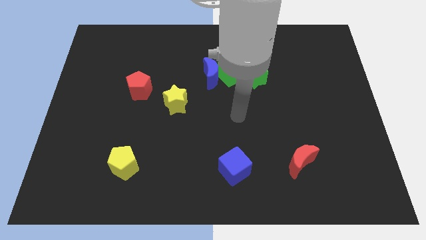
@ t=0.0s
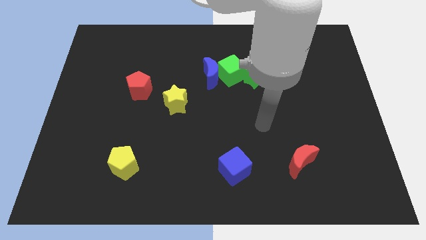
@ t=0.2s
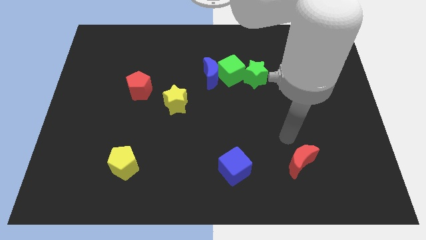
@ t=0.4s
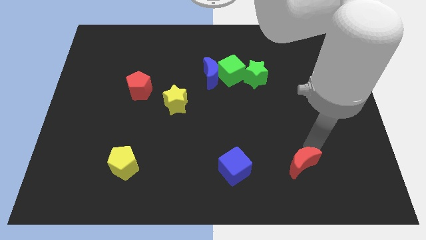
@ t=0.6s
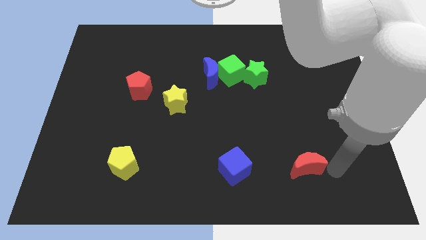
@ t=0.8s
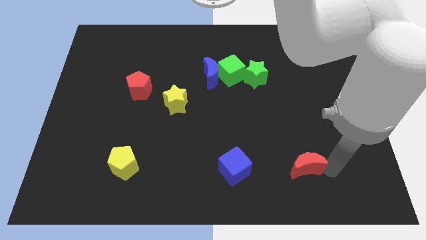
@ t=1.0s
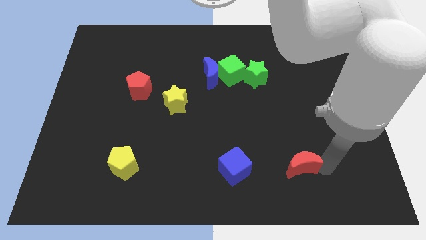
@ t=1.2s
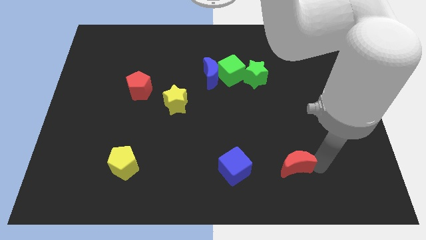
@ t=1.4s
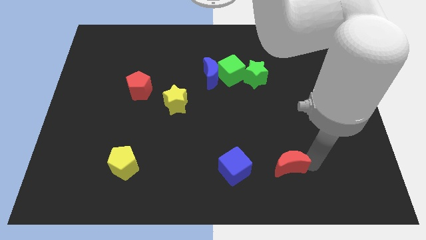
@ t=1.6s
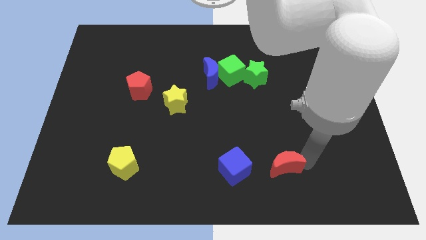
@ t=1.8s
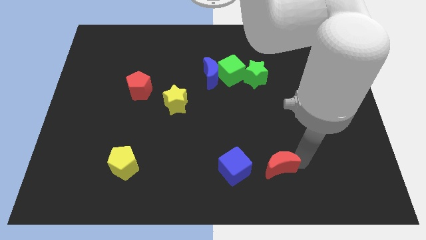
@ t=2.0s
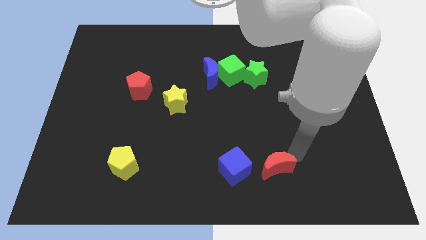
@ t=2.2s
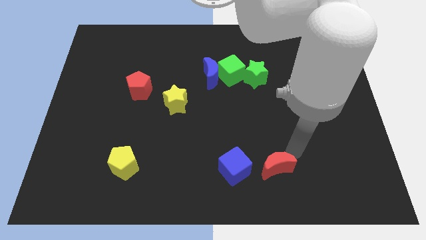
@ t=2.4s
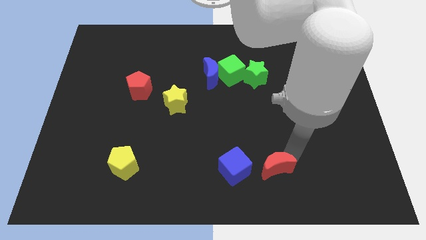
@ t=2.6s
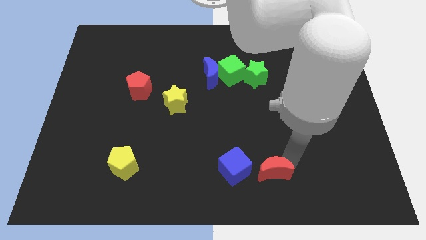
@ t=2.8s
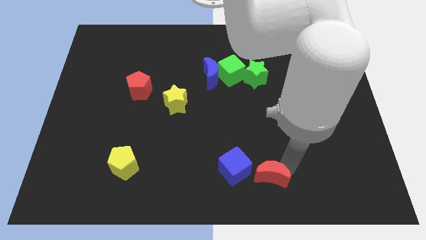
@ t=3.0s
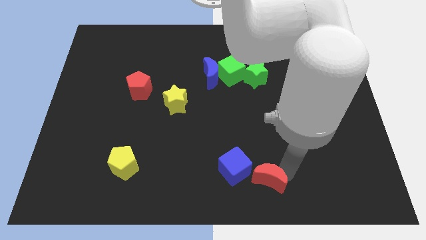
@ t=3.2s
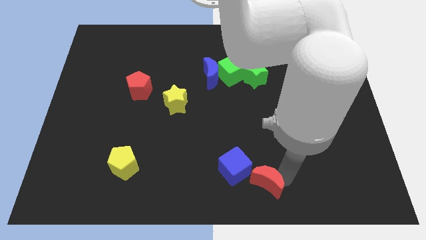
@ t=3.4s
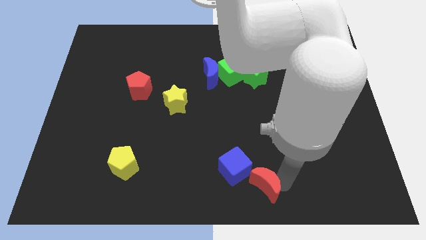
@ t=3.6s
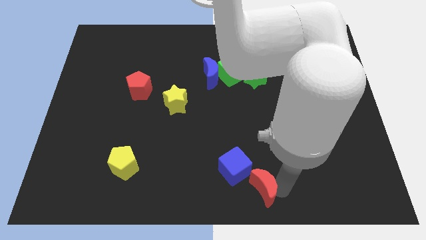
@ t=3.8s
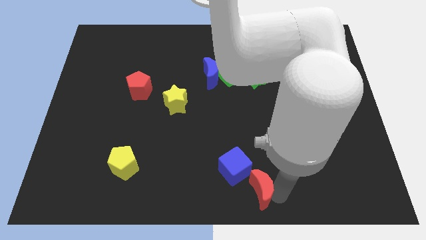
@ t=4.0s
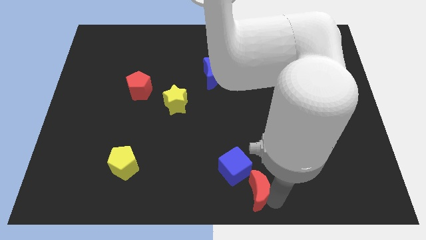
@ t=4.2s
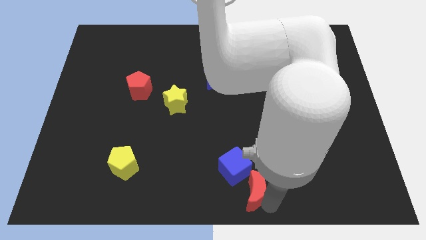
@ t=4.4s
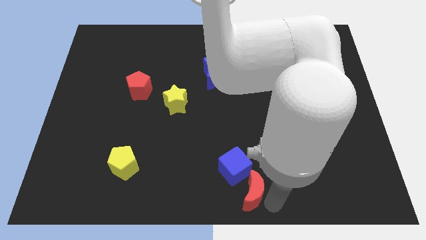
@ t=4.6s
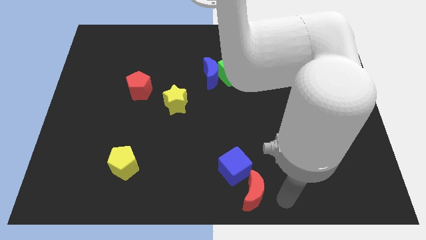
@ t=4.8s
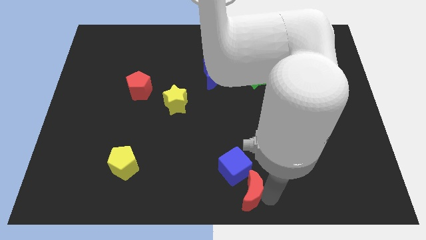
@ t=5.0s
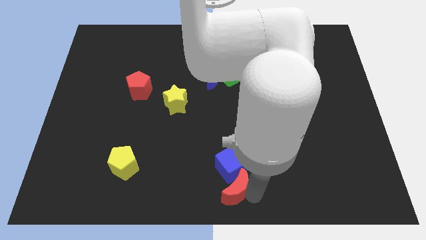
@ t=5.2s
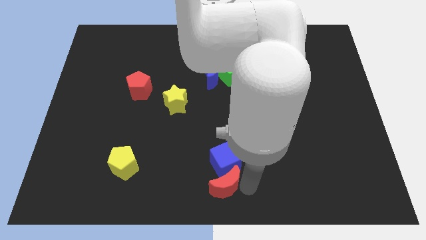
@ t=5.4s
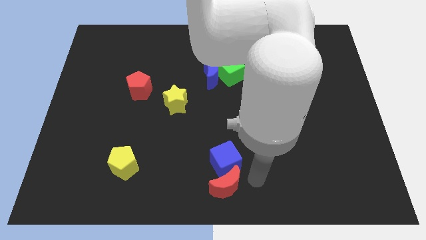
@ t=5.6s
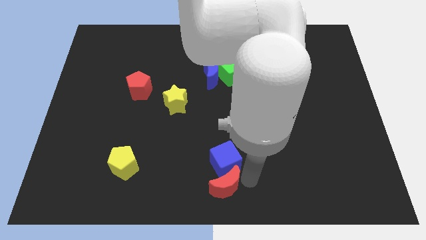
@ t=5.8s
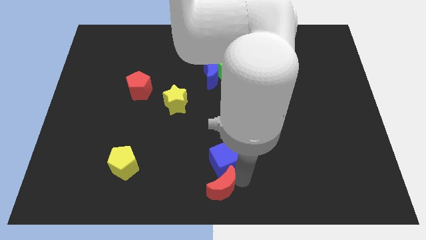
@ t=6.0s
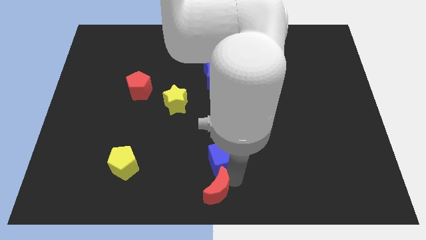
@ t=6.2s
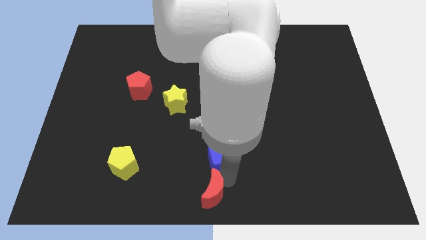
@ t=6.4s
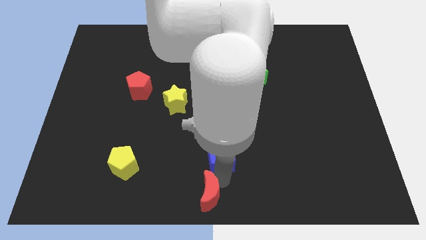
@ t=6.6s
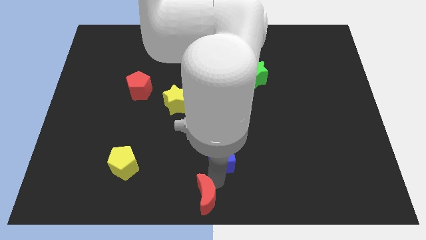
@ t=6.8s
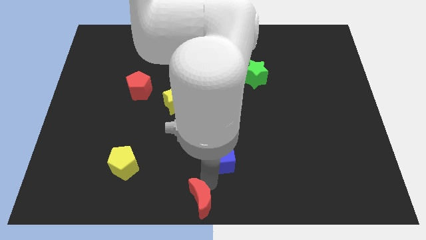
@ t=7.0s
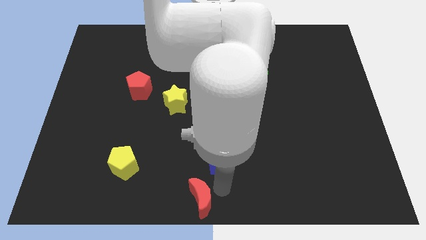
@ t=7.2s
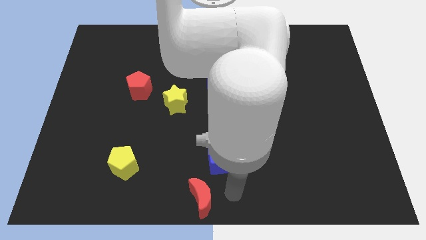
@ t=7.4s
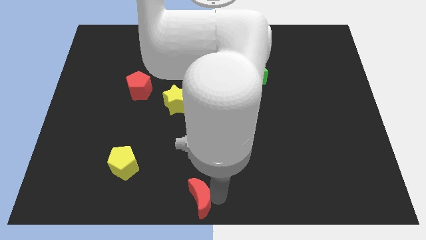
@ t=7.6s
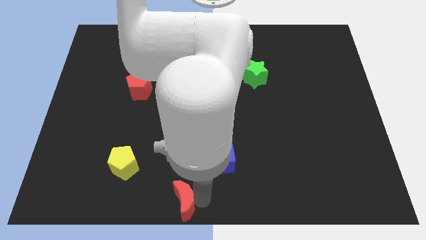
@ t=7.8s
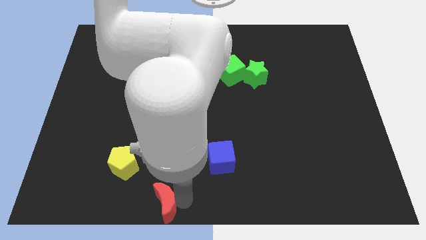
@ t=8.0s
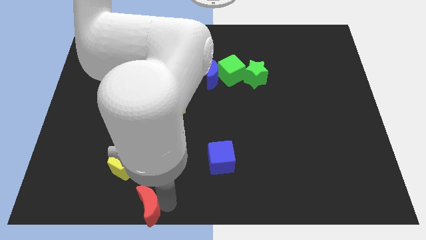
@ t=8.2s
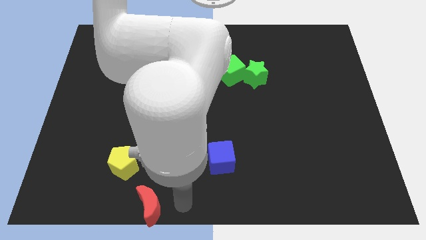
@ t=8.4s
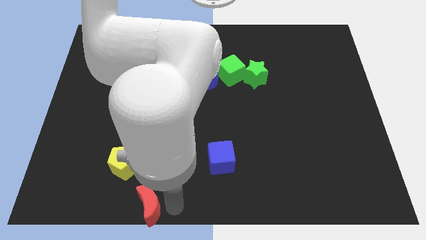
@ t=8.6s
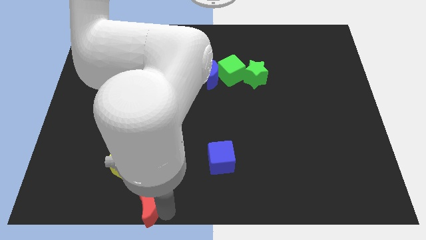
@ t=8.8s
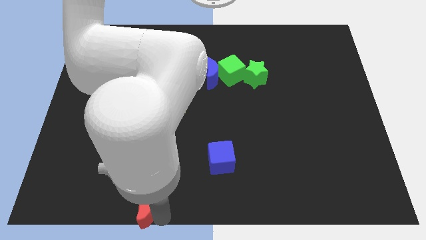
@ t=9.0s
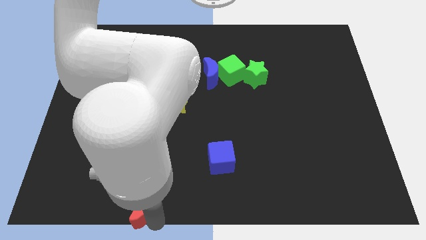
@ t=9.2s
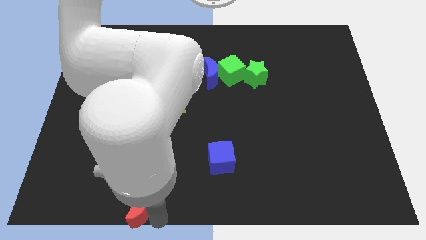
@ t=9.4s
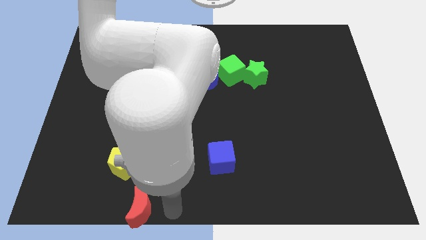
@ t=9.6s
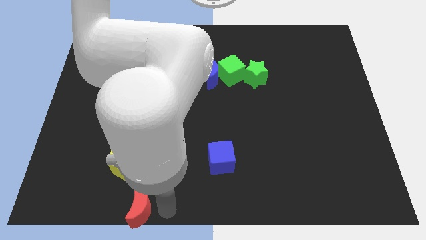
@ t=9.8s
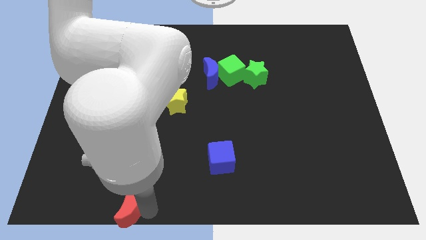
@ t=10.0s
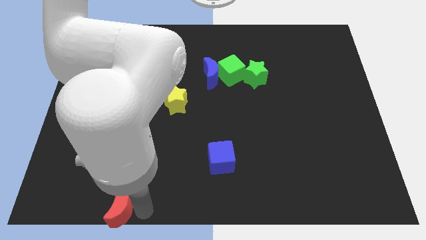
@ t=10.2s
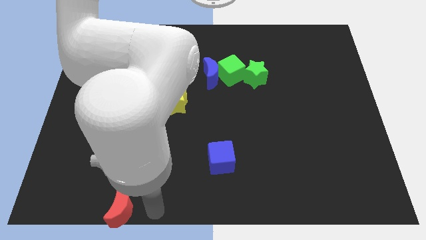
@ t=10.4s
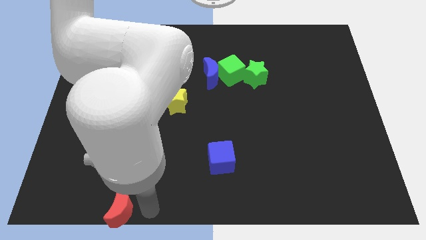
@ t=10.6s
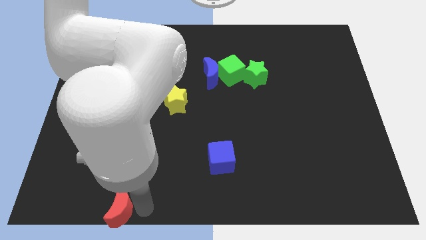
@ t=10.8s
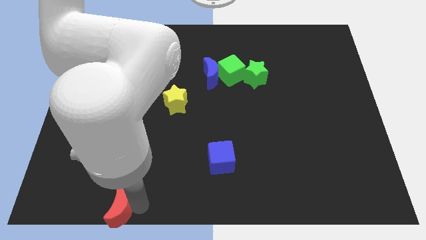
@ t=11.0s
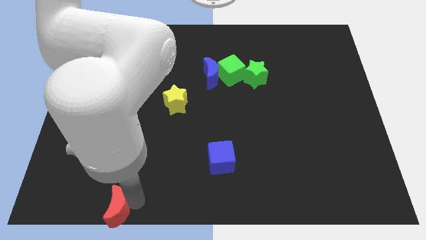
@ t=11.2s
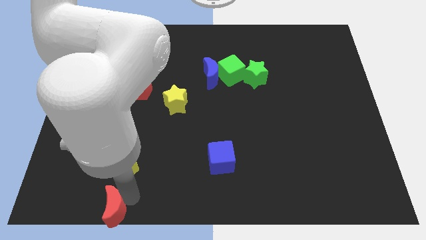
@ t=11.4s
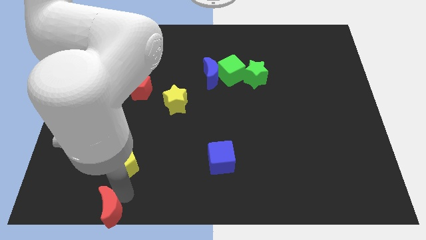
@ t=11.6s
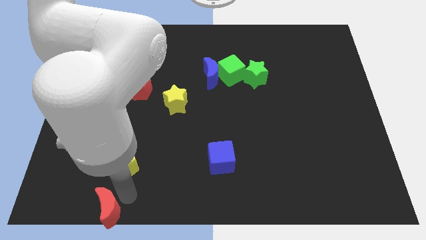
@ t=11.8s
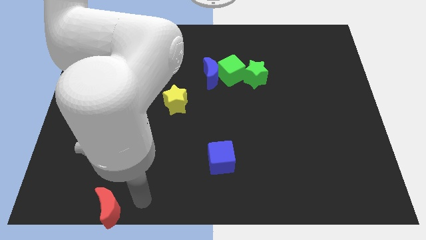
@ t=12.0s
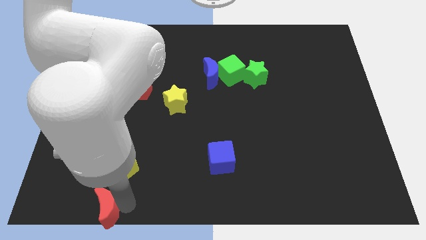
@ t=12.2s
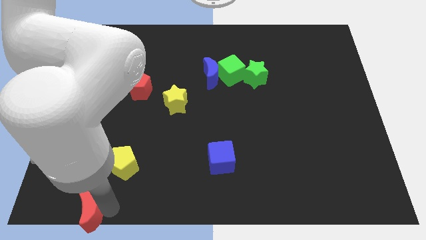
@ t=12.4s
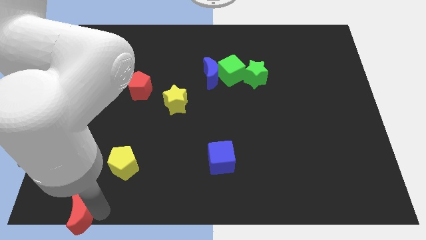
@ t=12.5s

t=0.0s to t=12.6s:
move the red moon to the bottom left corner
